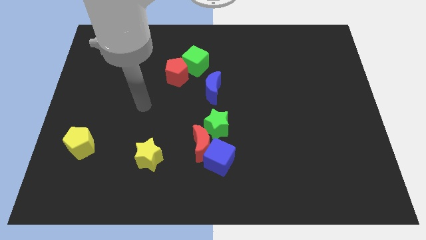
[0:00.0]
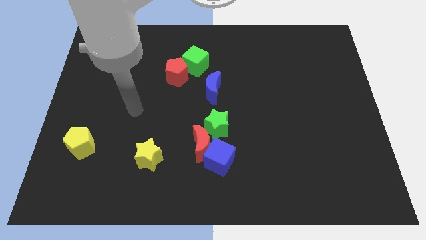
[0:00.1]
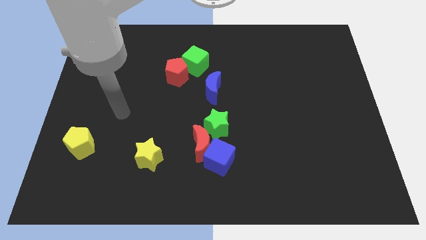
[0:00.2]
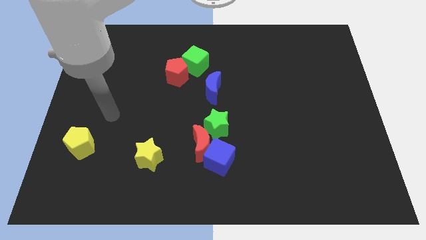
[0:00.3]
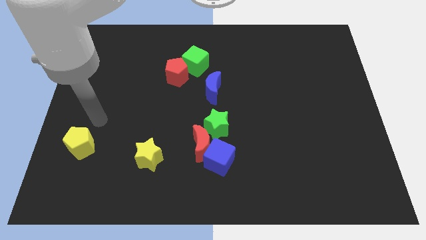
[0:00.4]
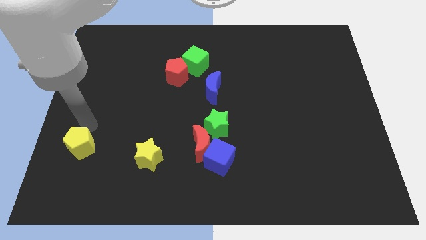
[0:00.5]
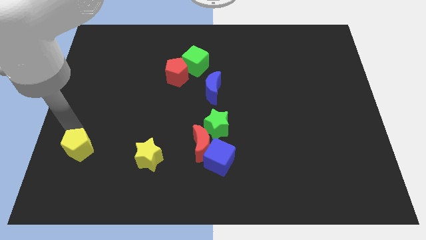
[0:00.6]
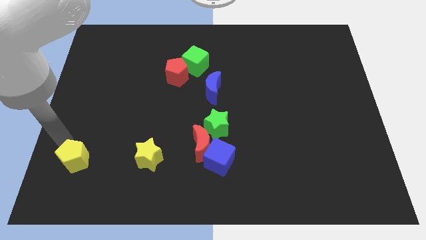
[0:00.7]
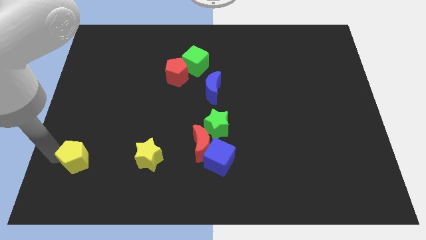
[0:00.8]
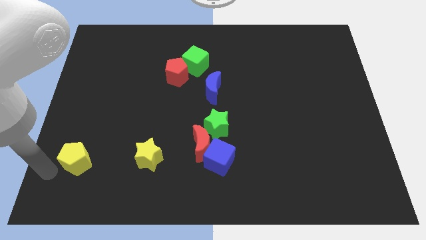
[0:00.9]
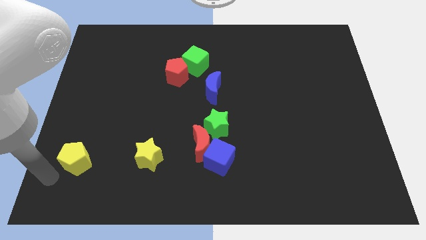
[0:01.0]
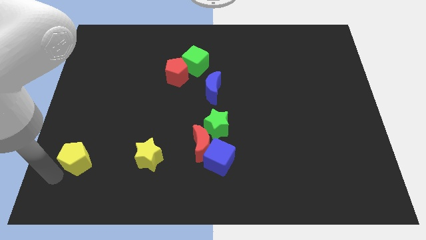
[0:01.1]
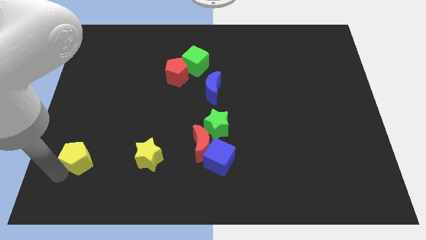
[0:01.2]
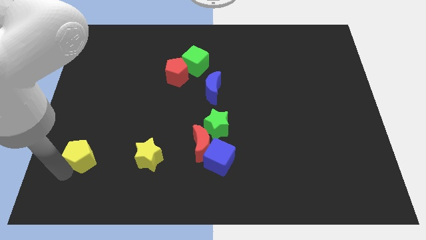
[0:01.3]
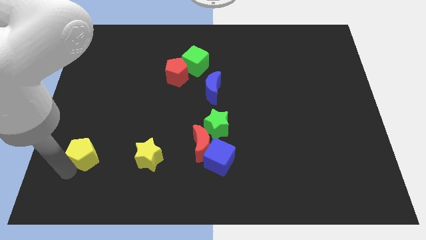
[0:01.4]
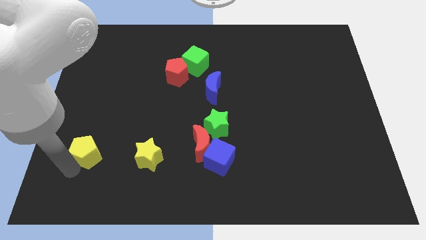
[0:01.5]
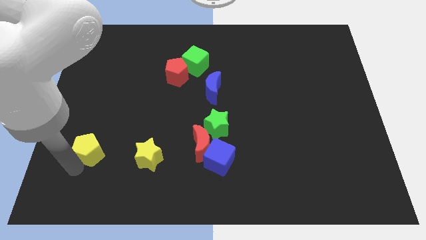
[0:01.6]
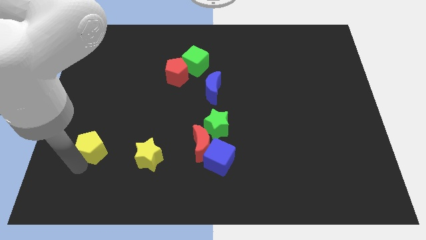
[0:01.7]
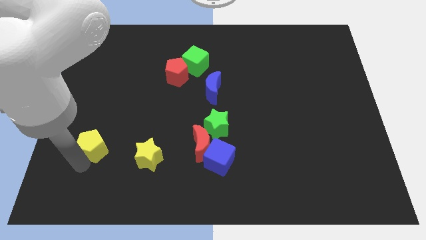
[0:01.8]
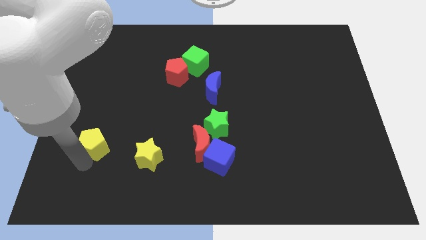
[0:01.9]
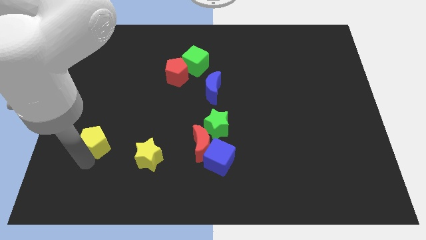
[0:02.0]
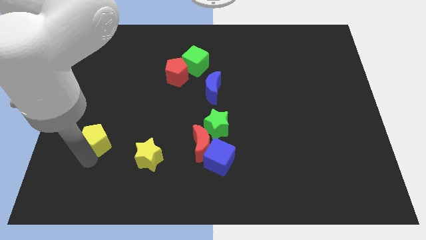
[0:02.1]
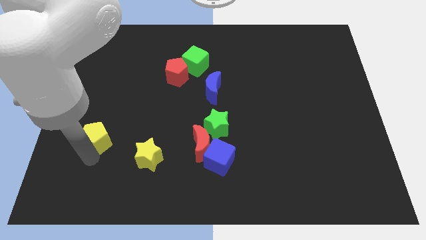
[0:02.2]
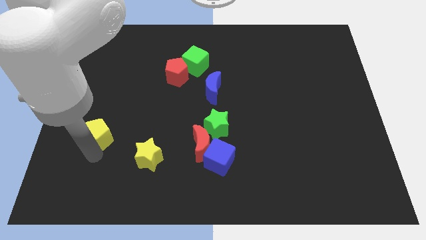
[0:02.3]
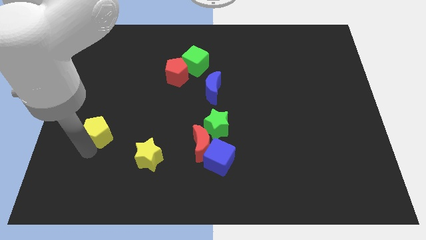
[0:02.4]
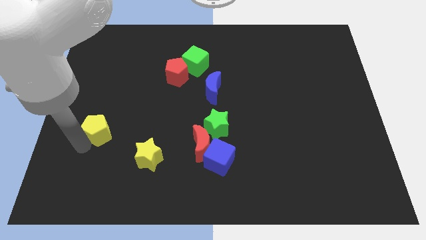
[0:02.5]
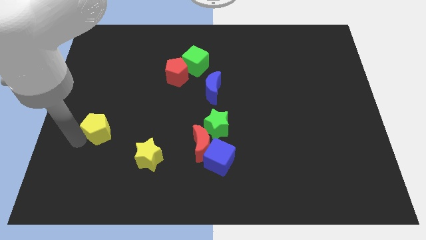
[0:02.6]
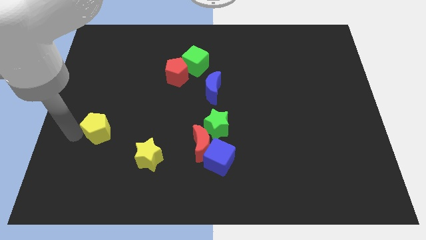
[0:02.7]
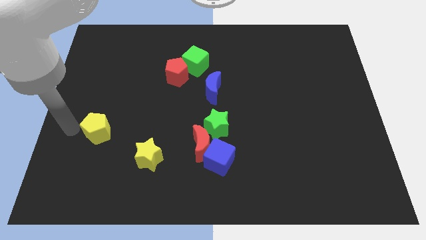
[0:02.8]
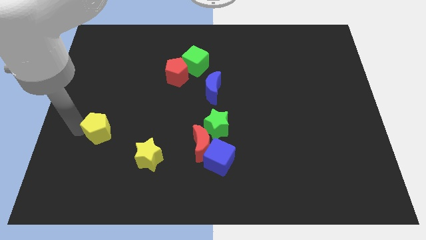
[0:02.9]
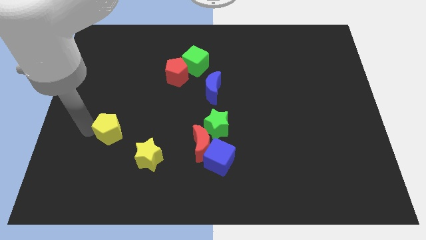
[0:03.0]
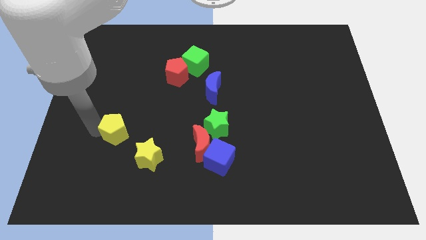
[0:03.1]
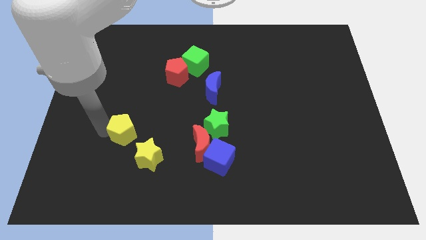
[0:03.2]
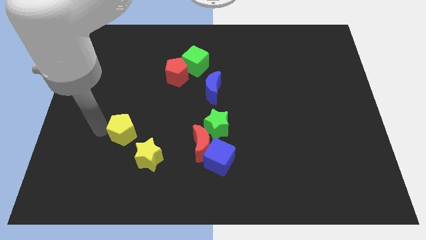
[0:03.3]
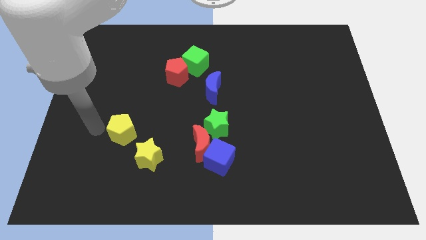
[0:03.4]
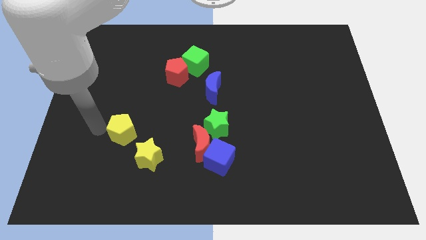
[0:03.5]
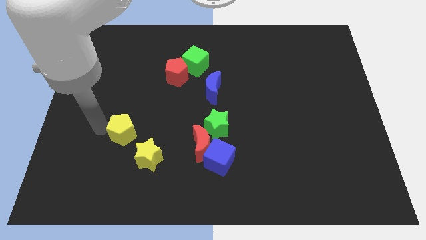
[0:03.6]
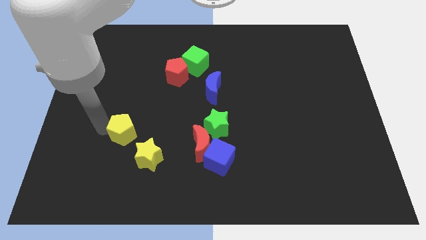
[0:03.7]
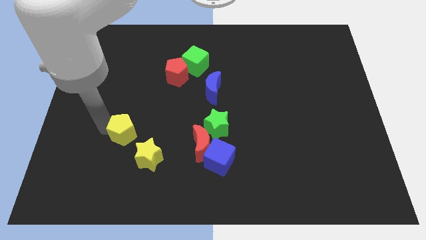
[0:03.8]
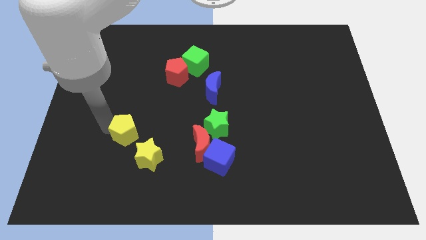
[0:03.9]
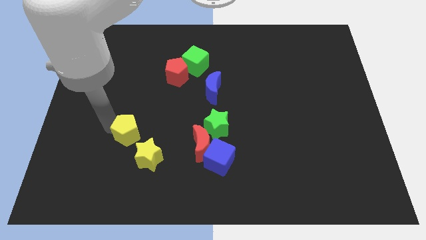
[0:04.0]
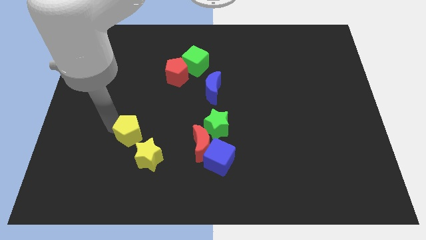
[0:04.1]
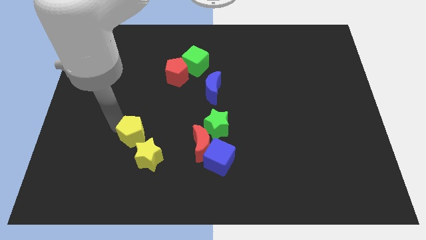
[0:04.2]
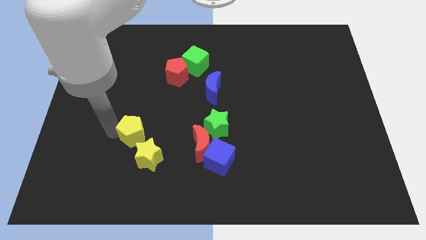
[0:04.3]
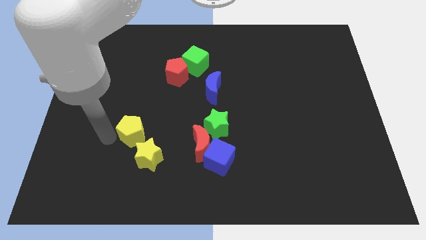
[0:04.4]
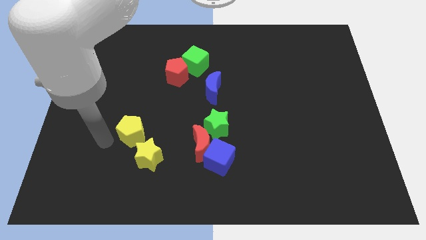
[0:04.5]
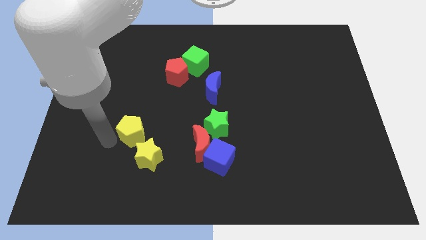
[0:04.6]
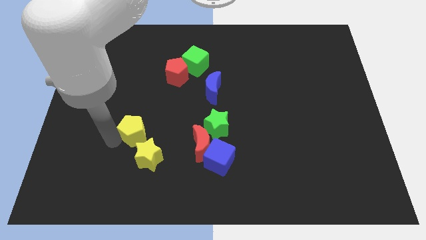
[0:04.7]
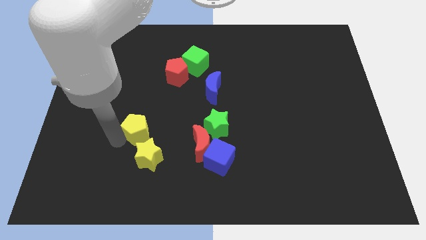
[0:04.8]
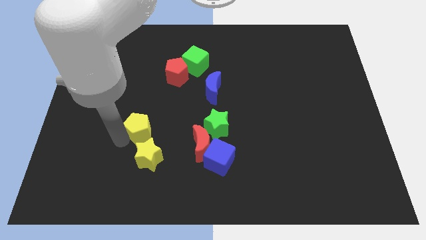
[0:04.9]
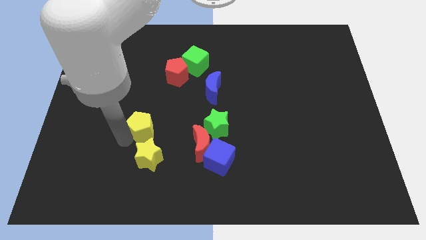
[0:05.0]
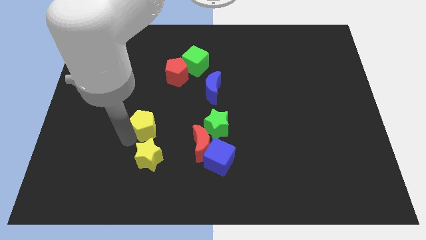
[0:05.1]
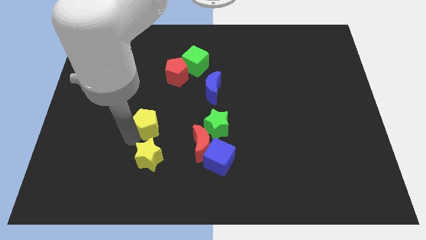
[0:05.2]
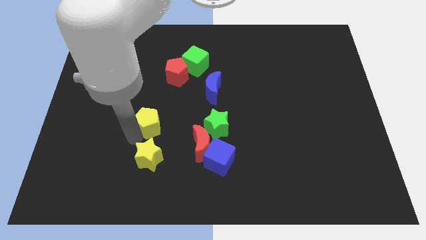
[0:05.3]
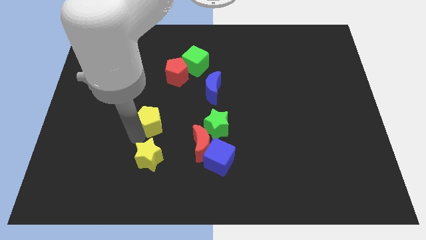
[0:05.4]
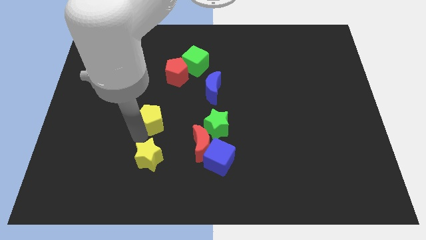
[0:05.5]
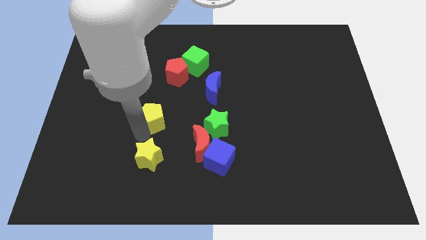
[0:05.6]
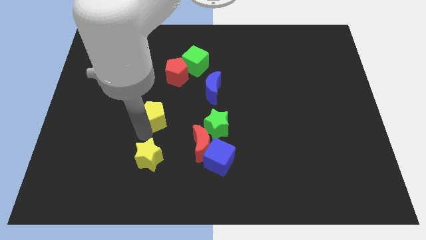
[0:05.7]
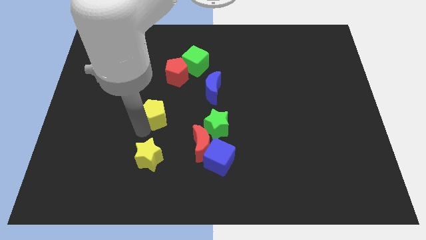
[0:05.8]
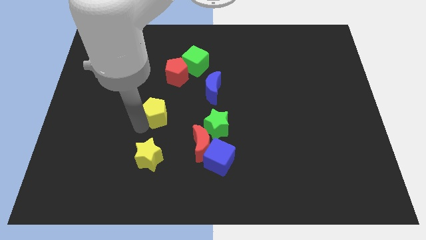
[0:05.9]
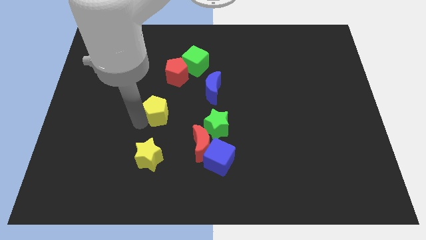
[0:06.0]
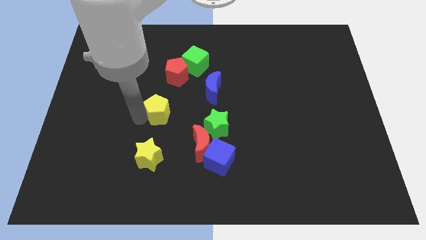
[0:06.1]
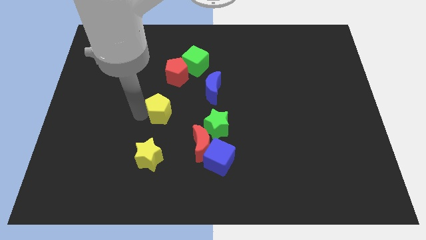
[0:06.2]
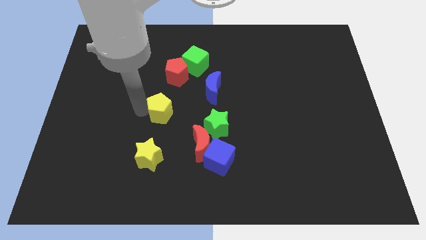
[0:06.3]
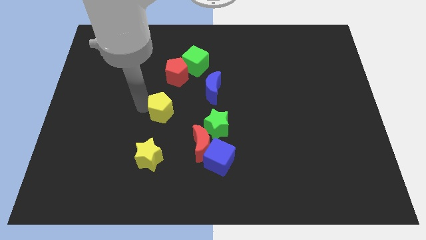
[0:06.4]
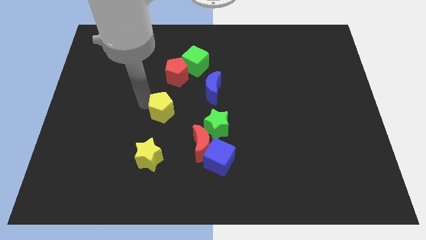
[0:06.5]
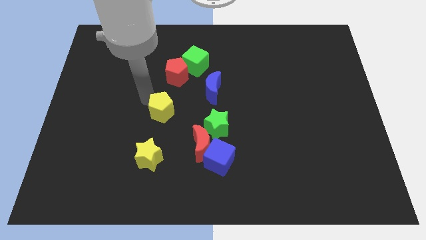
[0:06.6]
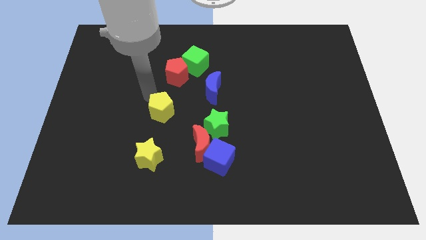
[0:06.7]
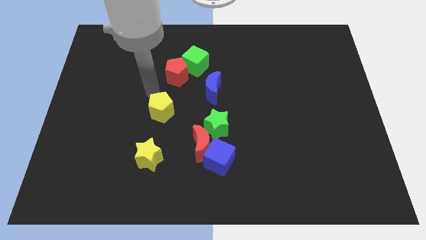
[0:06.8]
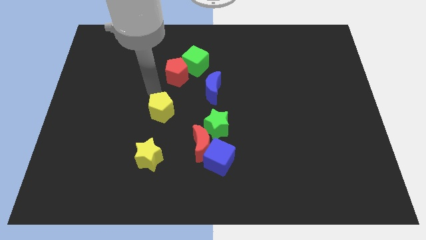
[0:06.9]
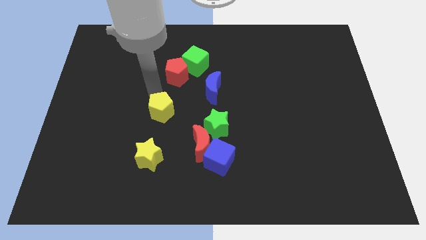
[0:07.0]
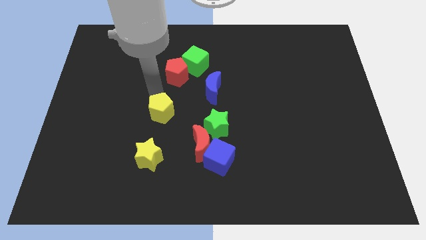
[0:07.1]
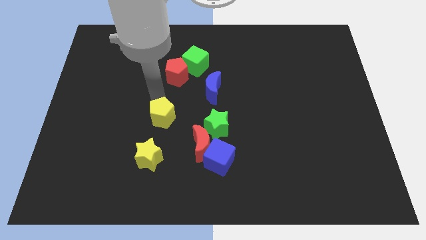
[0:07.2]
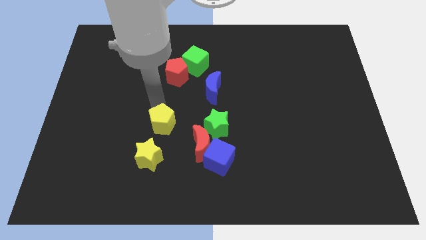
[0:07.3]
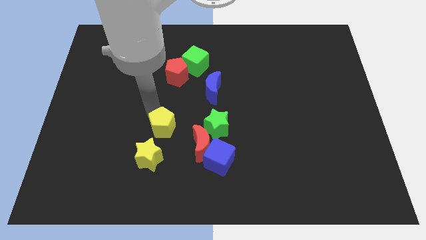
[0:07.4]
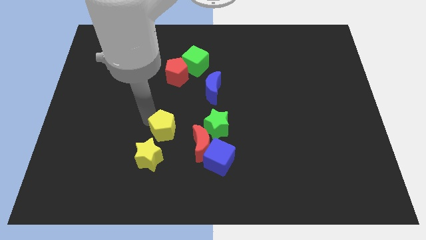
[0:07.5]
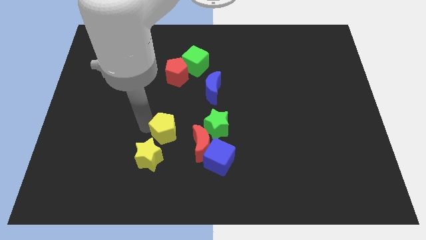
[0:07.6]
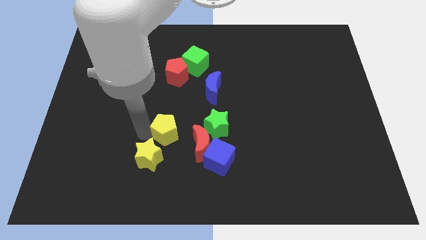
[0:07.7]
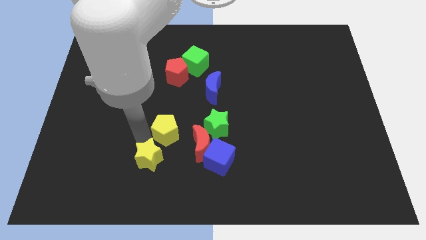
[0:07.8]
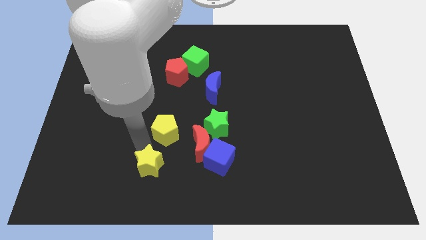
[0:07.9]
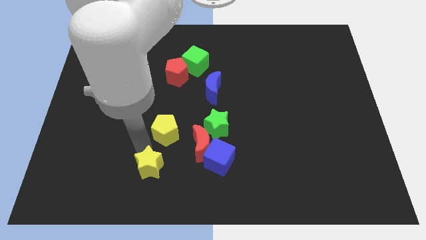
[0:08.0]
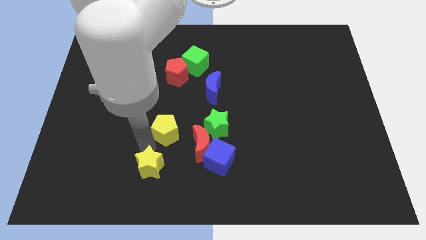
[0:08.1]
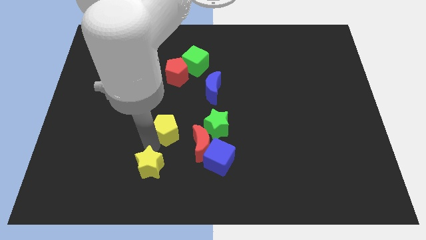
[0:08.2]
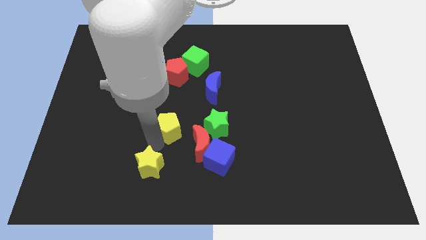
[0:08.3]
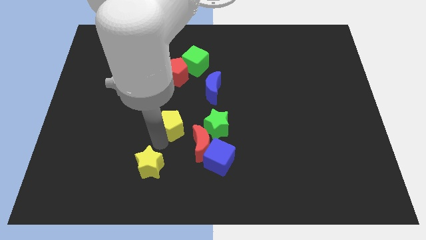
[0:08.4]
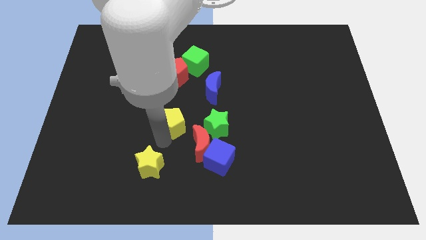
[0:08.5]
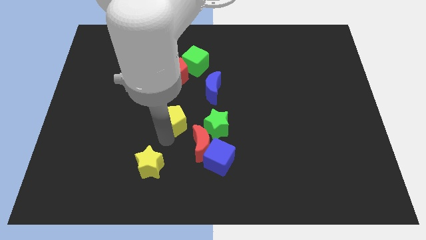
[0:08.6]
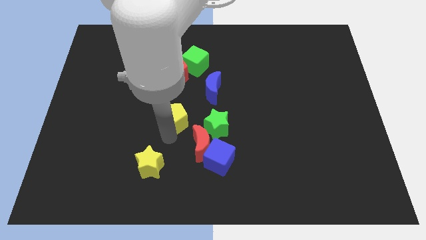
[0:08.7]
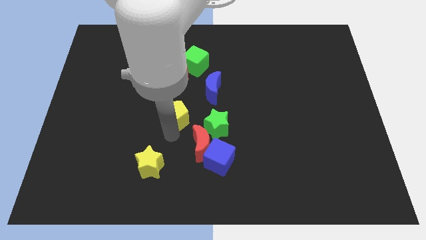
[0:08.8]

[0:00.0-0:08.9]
put the yellow pentagon to the top left side of the green star
